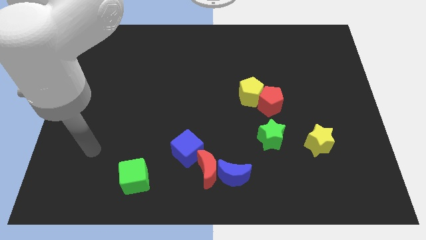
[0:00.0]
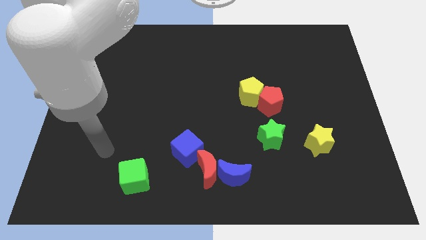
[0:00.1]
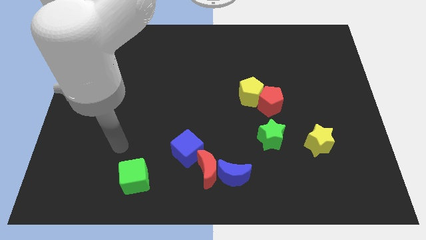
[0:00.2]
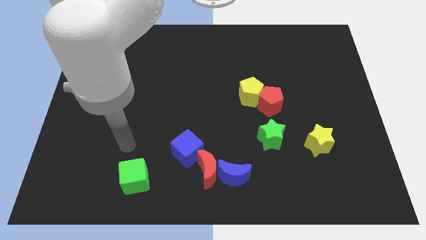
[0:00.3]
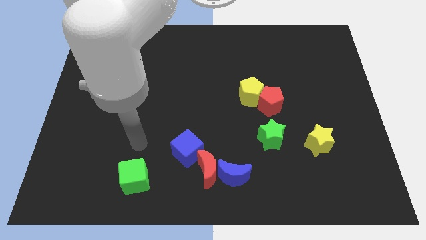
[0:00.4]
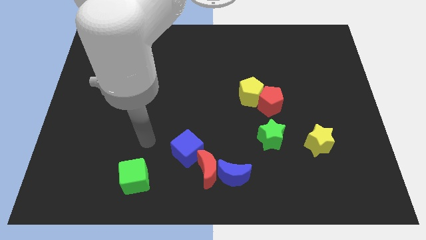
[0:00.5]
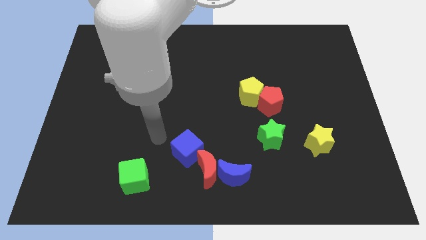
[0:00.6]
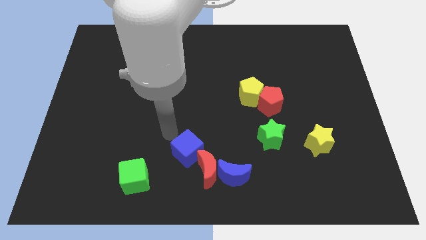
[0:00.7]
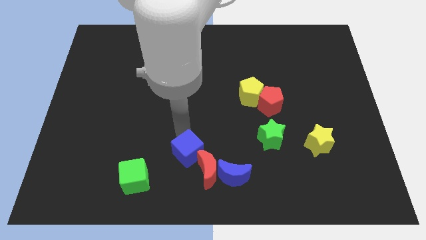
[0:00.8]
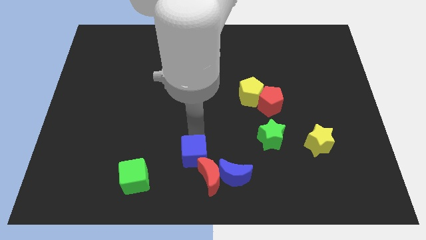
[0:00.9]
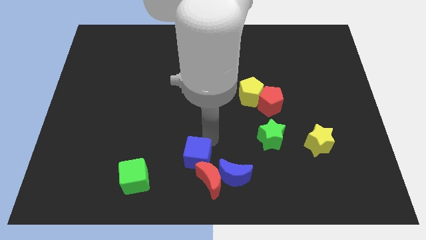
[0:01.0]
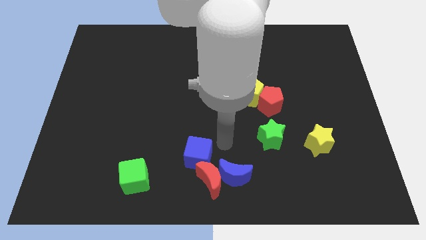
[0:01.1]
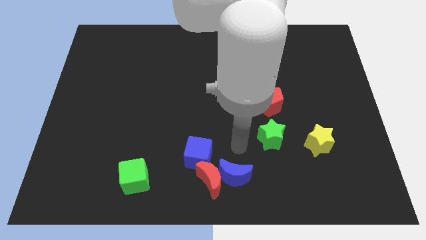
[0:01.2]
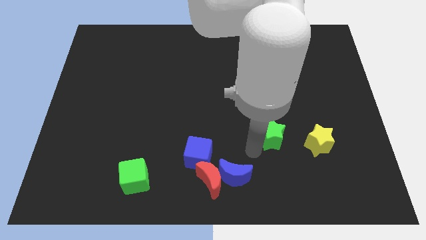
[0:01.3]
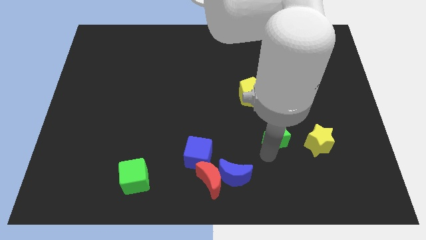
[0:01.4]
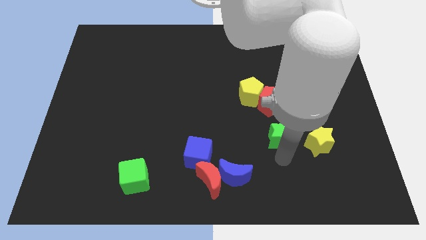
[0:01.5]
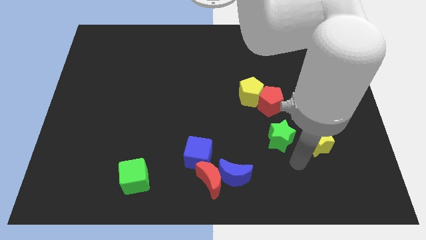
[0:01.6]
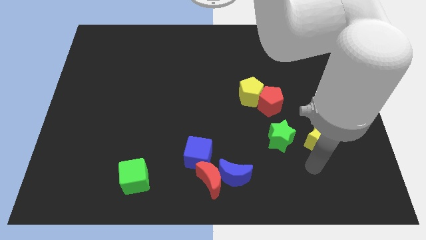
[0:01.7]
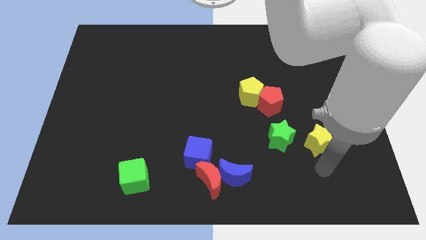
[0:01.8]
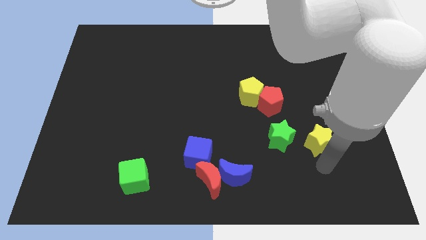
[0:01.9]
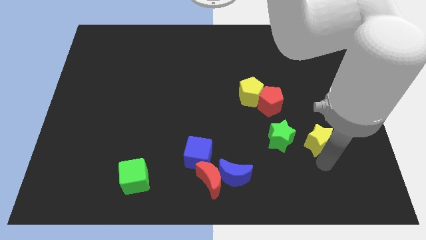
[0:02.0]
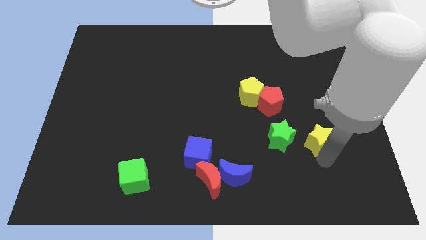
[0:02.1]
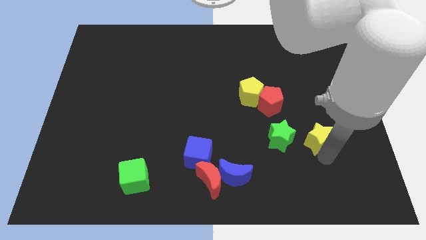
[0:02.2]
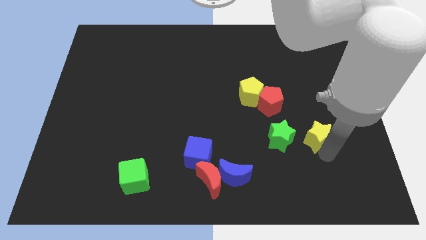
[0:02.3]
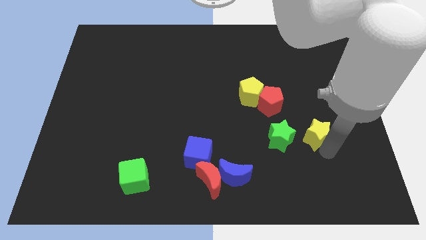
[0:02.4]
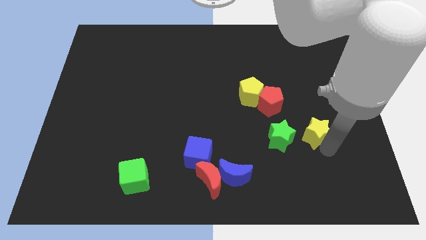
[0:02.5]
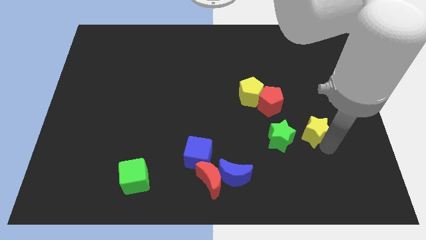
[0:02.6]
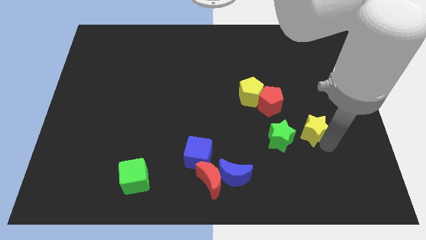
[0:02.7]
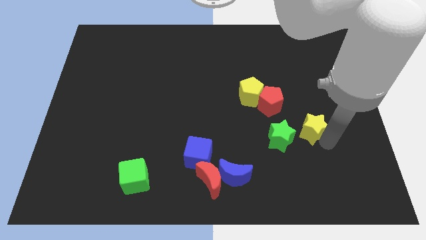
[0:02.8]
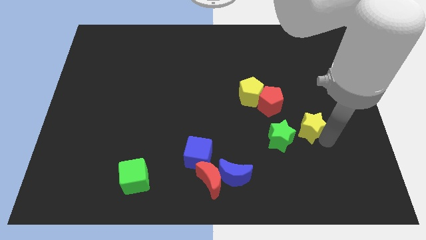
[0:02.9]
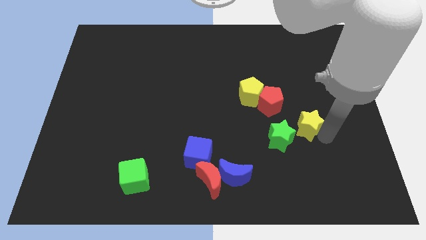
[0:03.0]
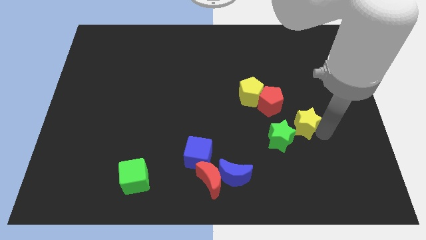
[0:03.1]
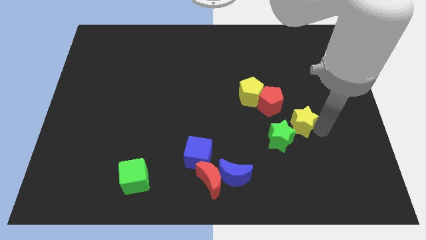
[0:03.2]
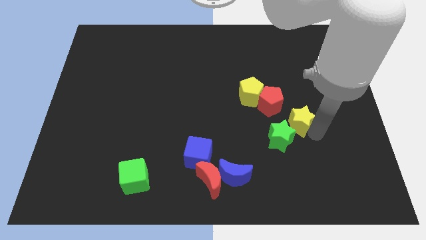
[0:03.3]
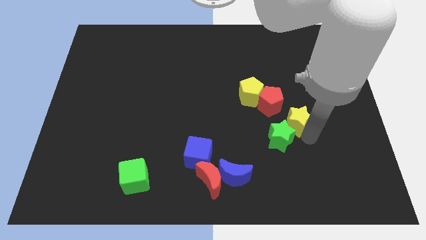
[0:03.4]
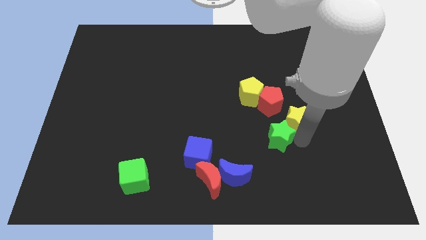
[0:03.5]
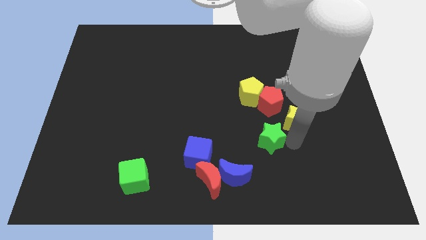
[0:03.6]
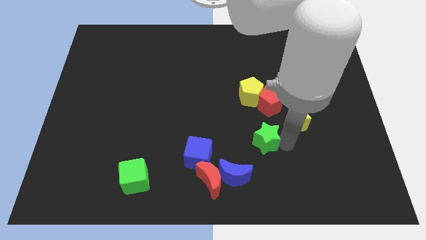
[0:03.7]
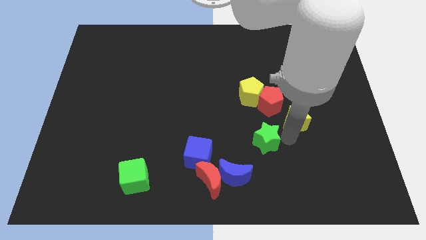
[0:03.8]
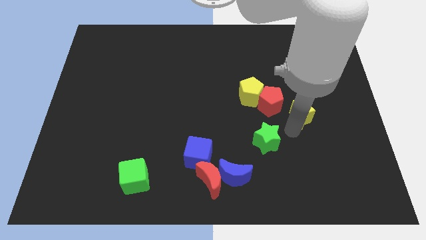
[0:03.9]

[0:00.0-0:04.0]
slightly push the yellow star upwards

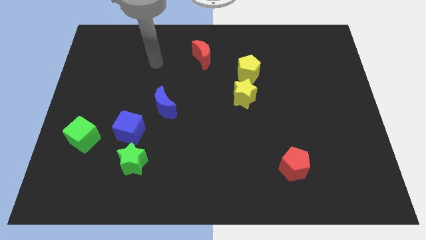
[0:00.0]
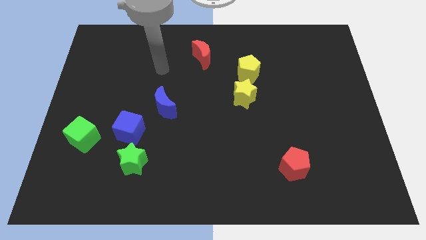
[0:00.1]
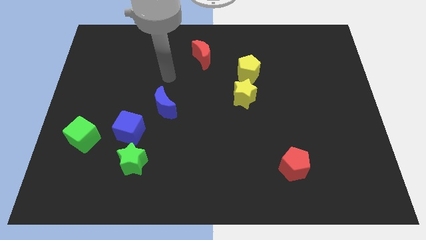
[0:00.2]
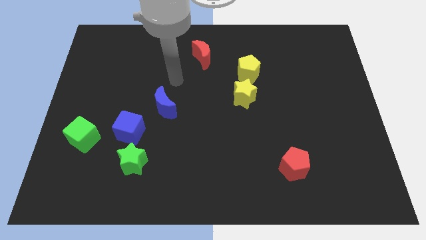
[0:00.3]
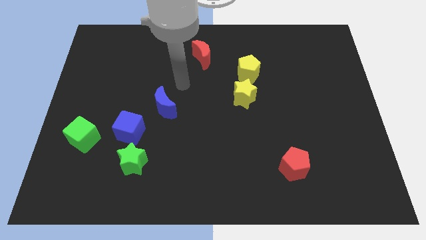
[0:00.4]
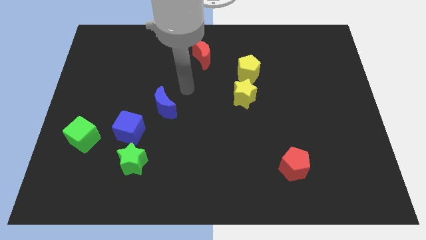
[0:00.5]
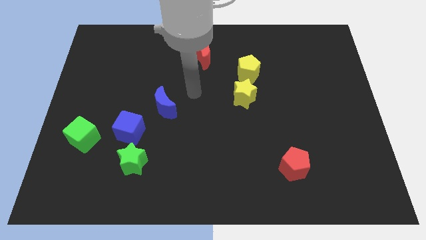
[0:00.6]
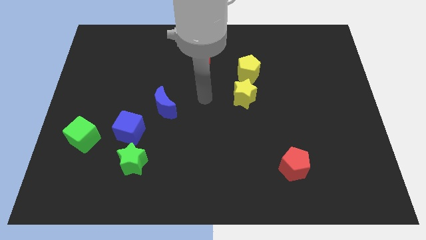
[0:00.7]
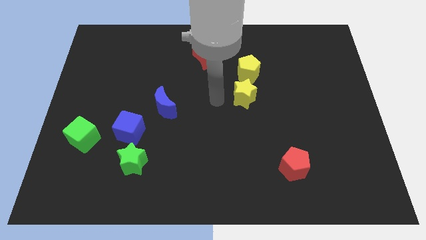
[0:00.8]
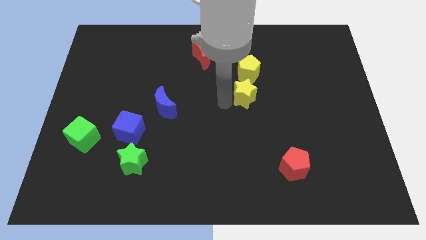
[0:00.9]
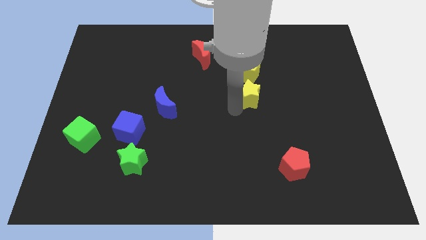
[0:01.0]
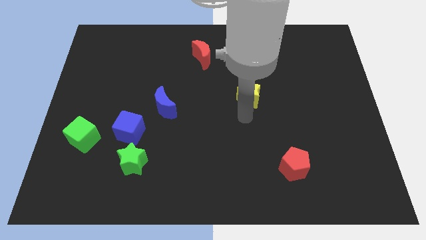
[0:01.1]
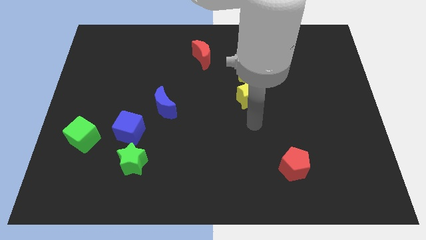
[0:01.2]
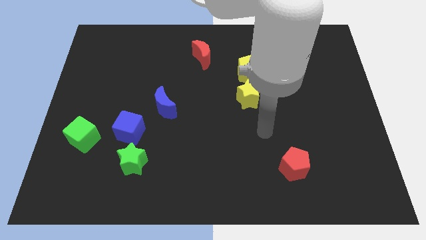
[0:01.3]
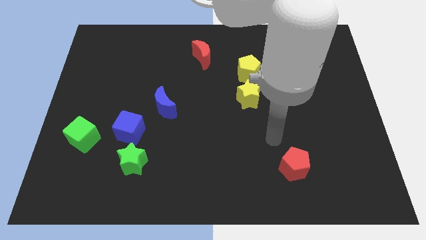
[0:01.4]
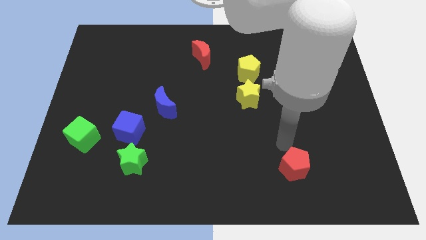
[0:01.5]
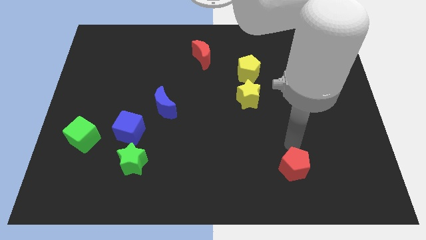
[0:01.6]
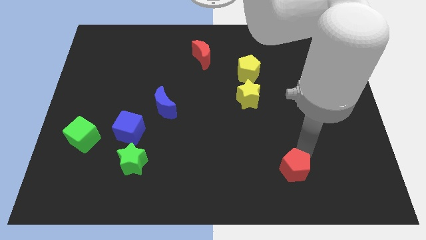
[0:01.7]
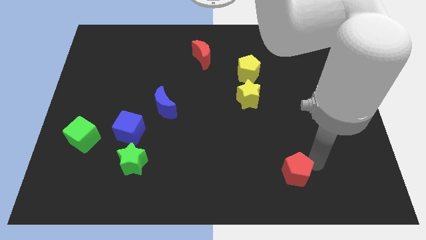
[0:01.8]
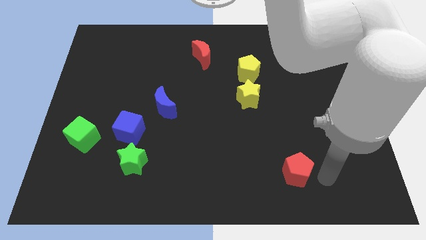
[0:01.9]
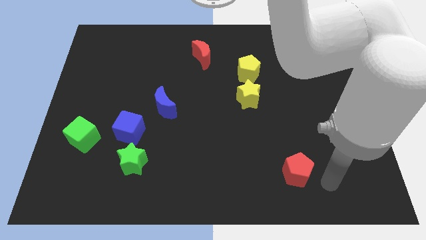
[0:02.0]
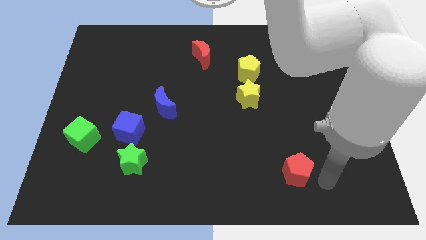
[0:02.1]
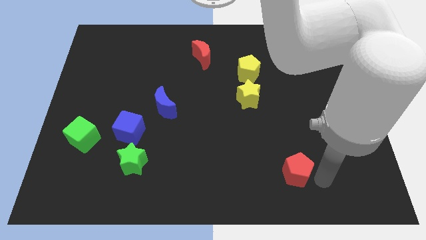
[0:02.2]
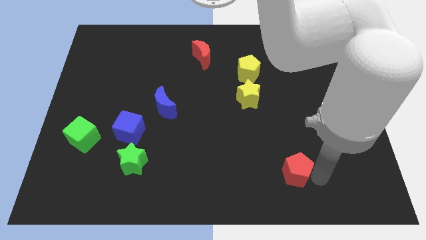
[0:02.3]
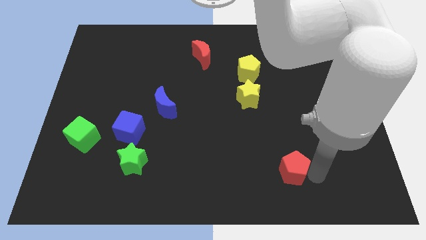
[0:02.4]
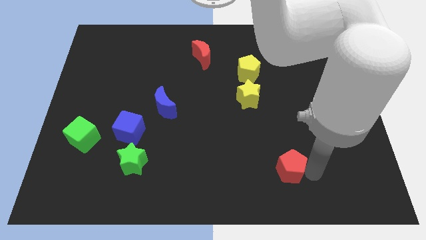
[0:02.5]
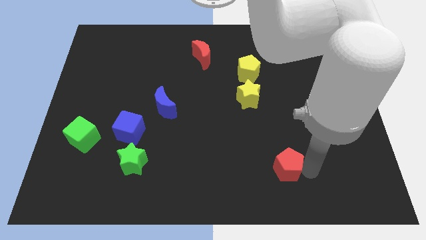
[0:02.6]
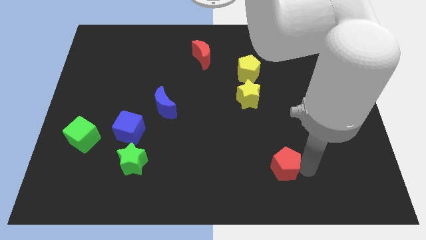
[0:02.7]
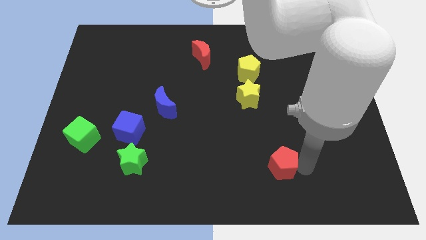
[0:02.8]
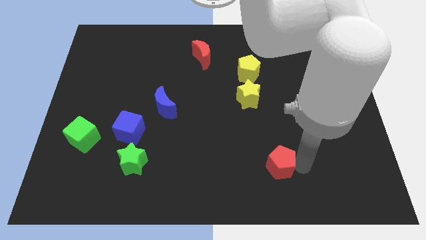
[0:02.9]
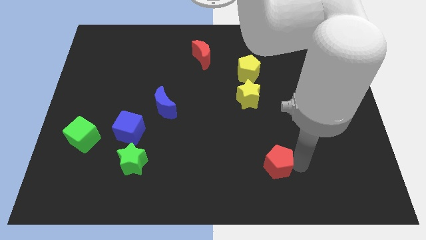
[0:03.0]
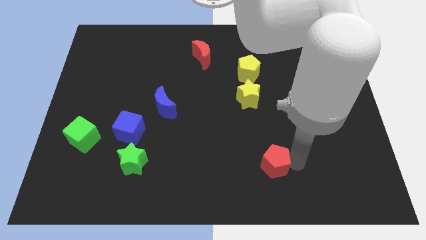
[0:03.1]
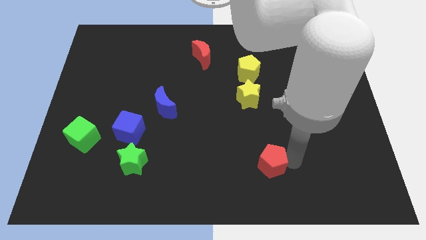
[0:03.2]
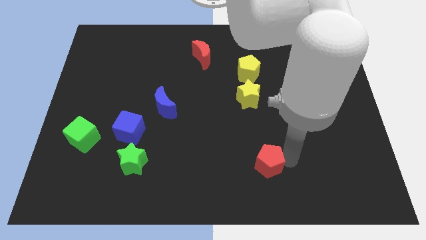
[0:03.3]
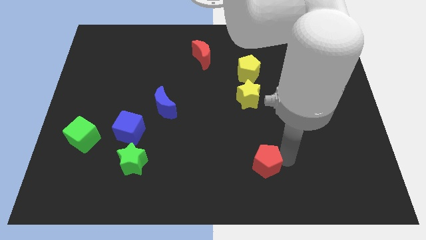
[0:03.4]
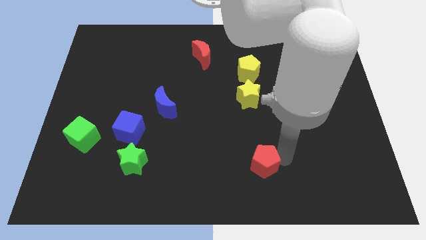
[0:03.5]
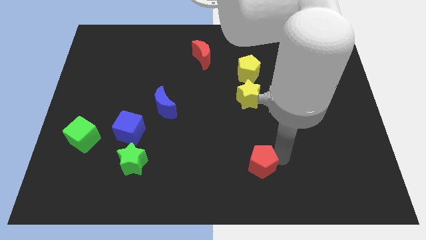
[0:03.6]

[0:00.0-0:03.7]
slide the red pentagon to the left slightly

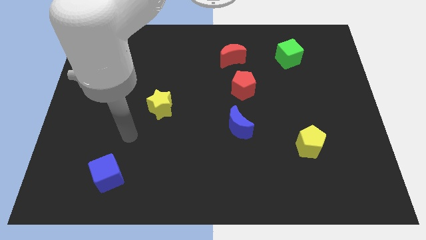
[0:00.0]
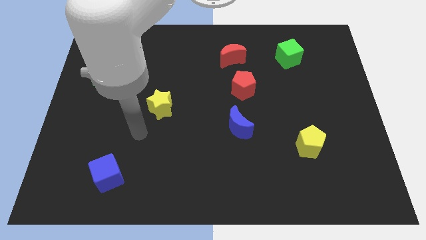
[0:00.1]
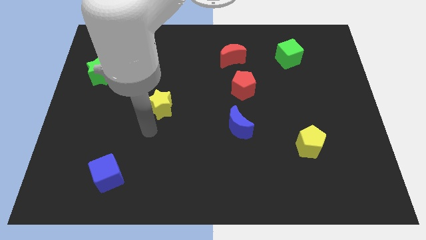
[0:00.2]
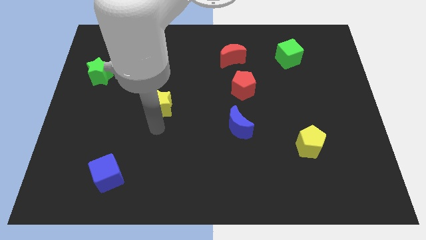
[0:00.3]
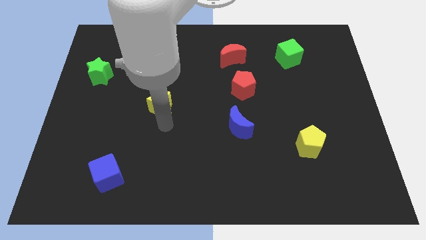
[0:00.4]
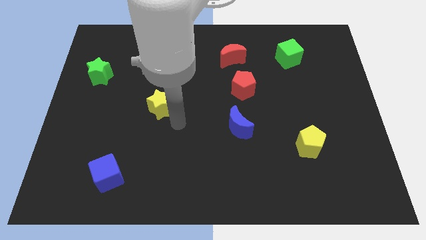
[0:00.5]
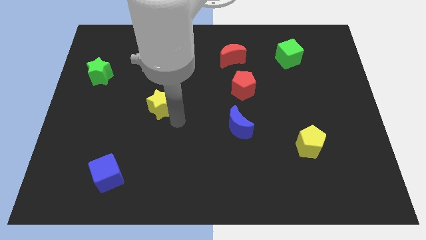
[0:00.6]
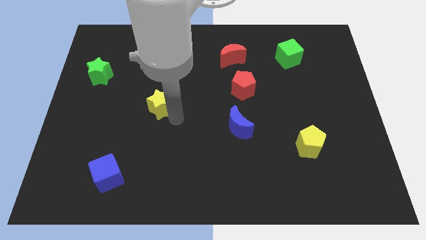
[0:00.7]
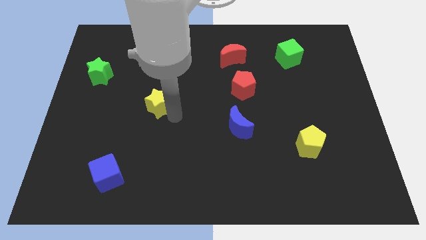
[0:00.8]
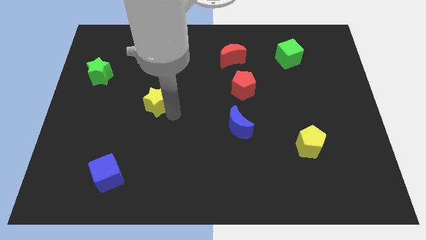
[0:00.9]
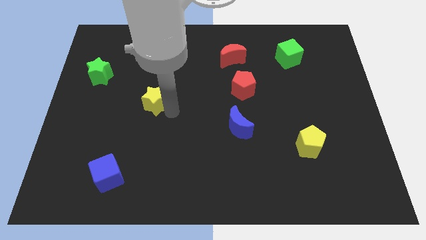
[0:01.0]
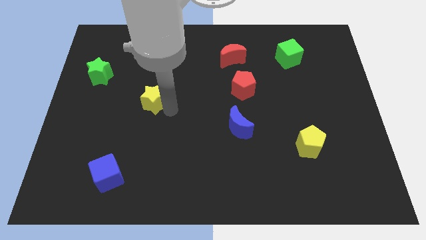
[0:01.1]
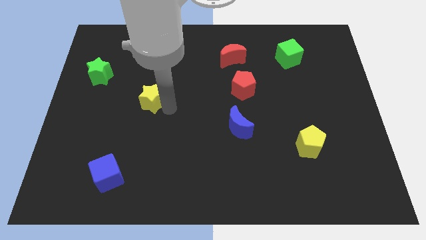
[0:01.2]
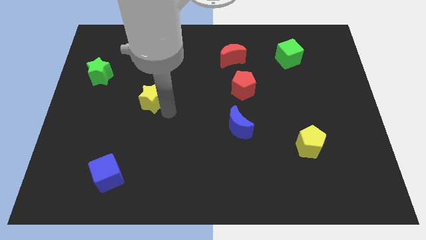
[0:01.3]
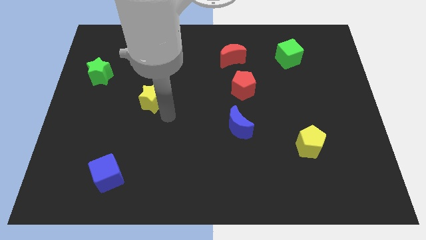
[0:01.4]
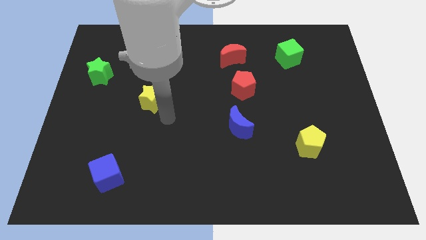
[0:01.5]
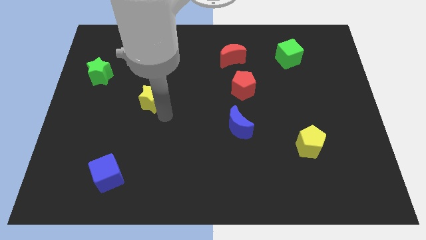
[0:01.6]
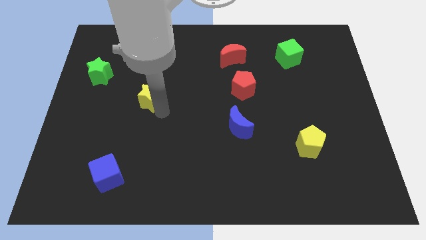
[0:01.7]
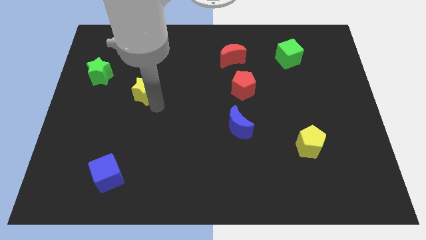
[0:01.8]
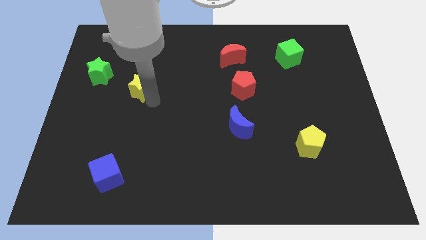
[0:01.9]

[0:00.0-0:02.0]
slightly slide the yellow star up and left diagonally
